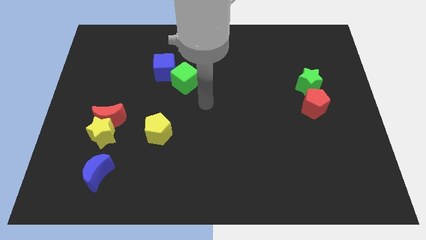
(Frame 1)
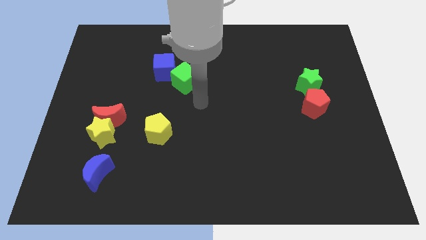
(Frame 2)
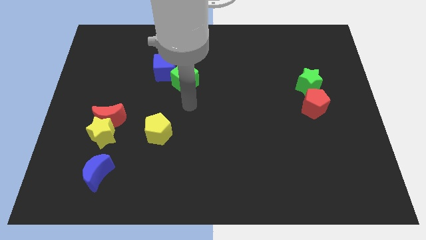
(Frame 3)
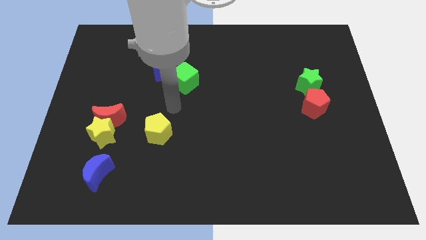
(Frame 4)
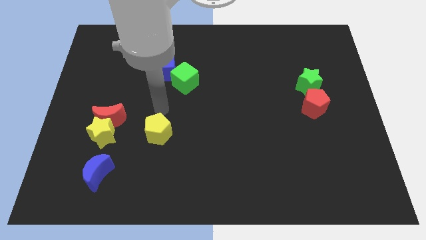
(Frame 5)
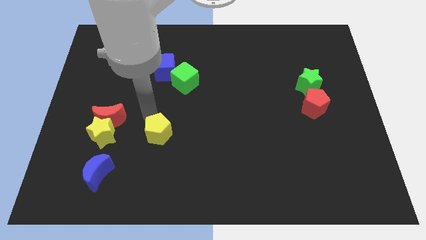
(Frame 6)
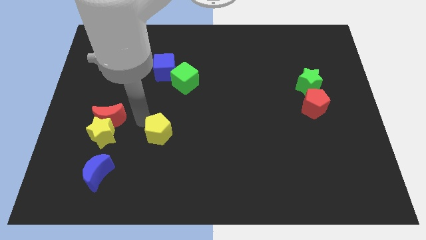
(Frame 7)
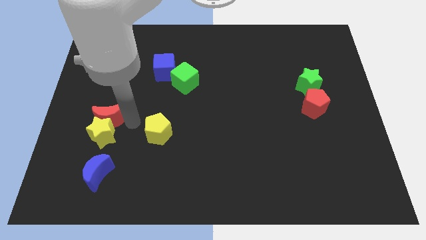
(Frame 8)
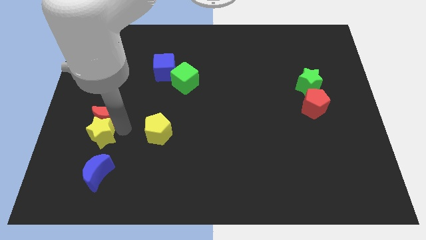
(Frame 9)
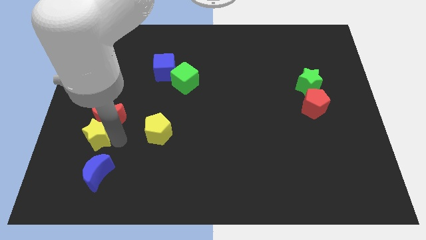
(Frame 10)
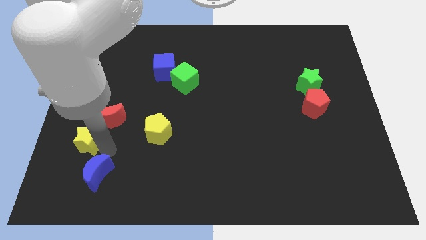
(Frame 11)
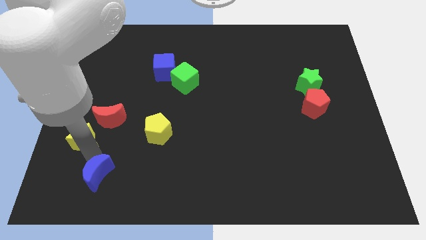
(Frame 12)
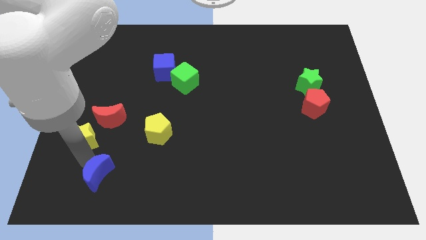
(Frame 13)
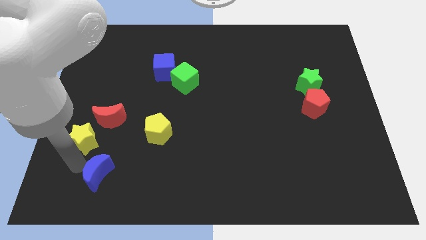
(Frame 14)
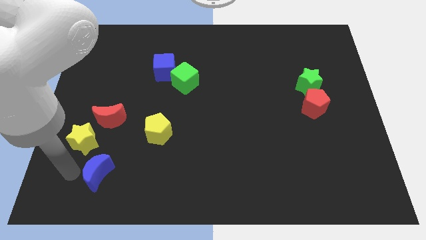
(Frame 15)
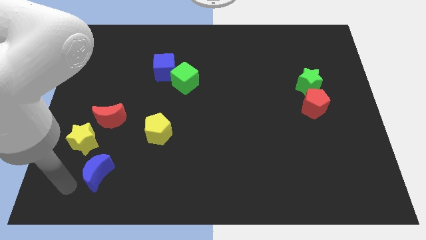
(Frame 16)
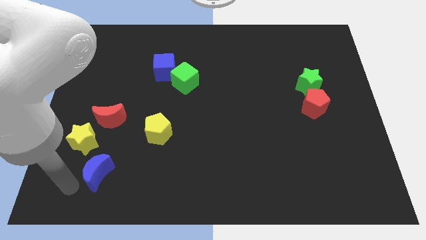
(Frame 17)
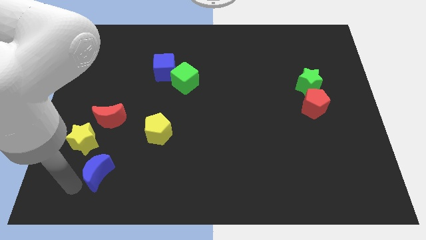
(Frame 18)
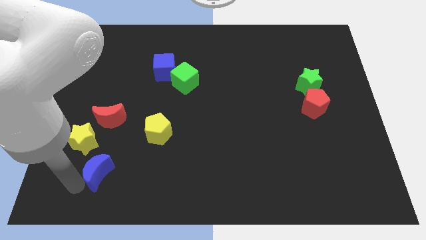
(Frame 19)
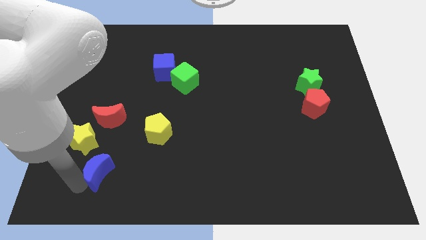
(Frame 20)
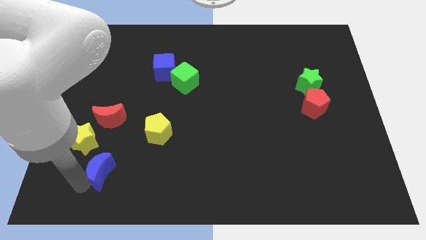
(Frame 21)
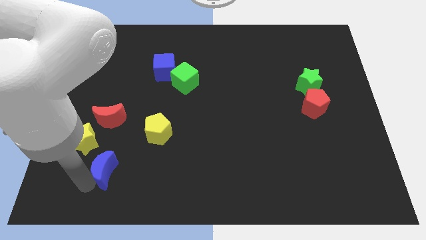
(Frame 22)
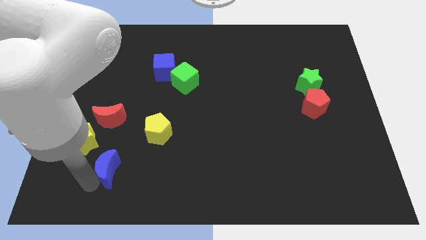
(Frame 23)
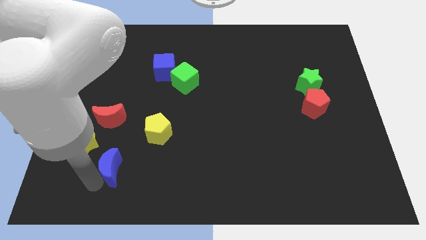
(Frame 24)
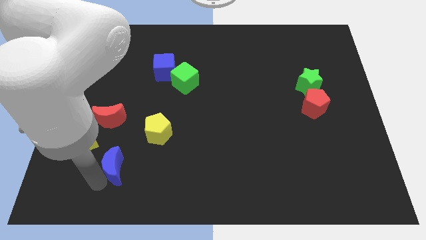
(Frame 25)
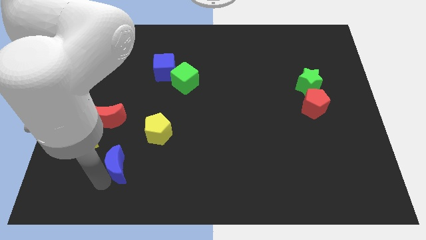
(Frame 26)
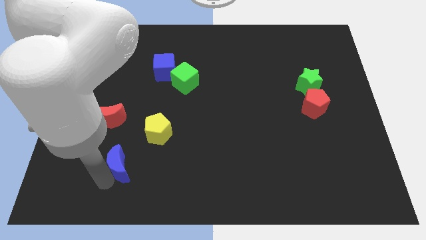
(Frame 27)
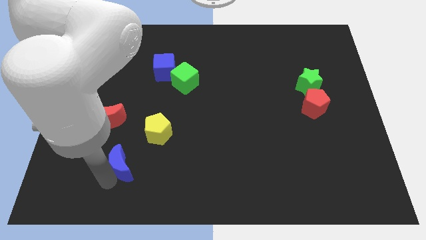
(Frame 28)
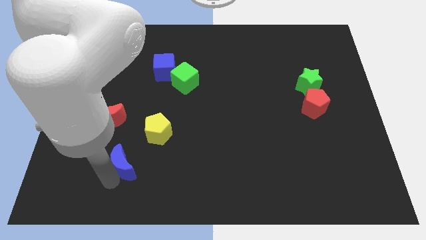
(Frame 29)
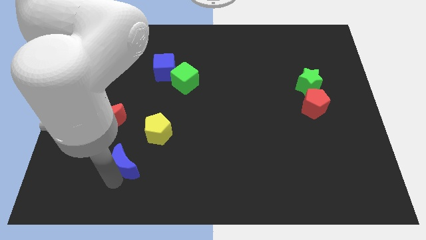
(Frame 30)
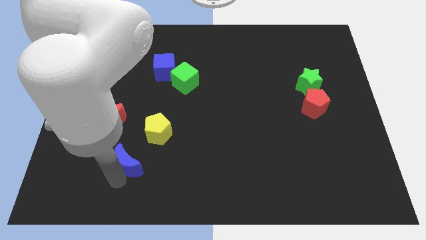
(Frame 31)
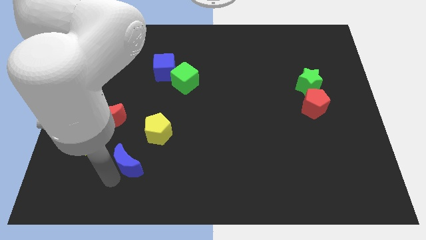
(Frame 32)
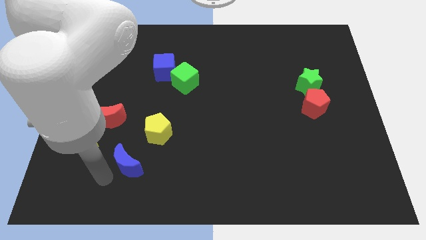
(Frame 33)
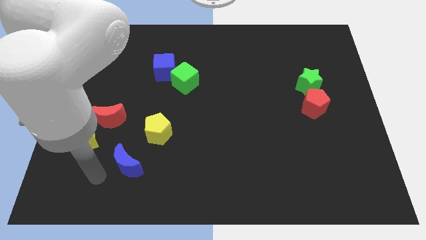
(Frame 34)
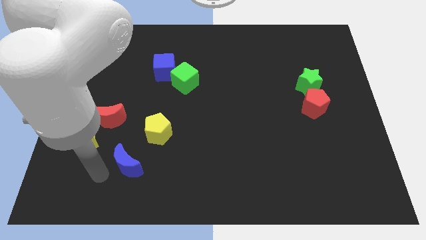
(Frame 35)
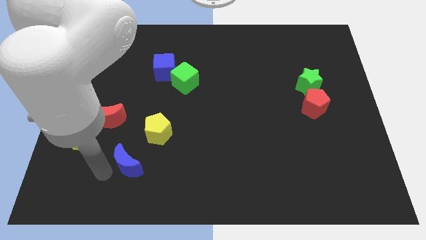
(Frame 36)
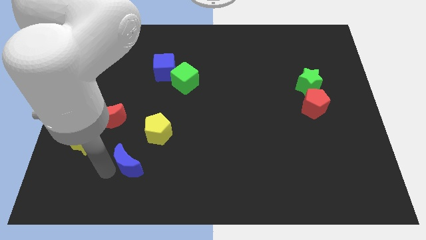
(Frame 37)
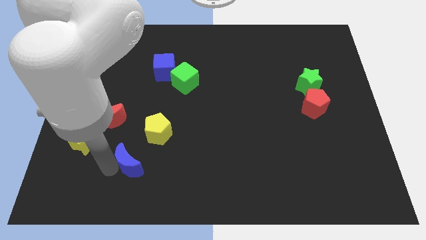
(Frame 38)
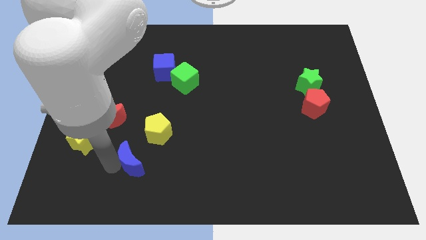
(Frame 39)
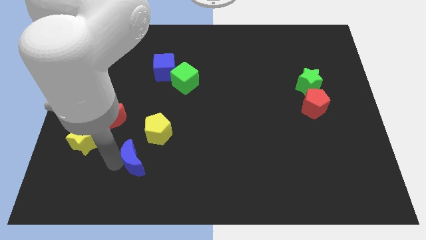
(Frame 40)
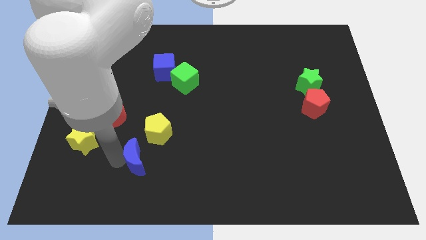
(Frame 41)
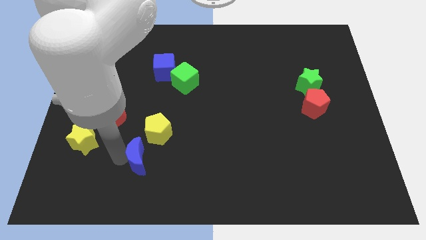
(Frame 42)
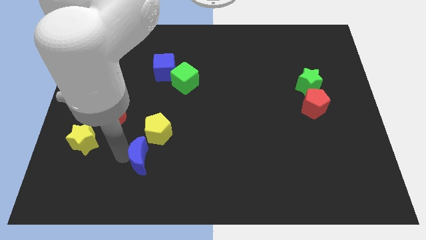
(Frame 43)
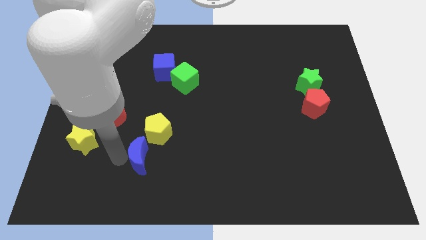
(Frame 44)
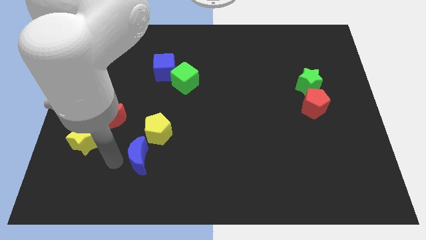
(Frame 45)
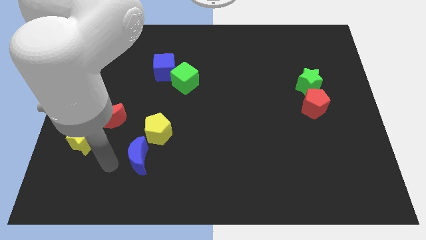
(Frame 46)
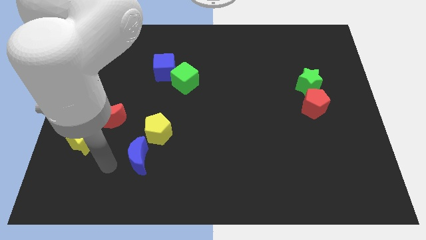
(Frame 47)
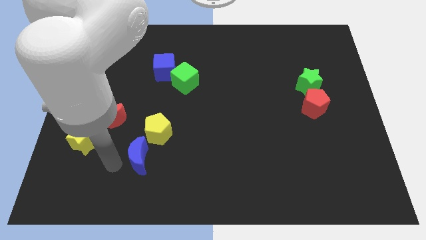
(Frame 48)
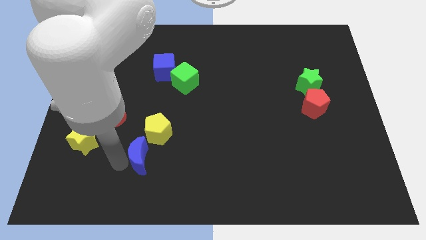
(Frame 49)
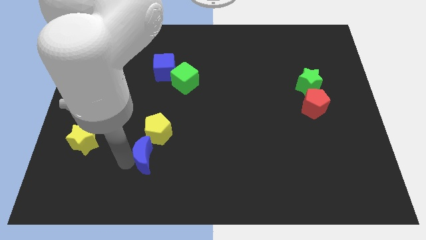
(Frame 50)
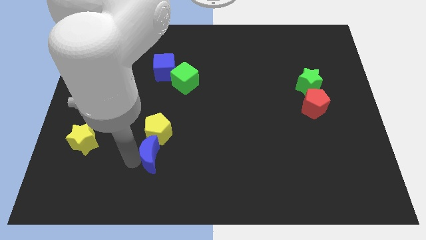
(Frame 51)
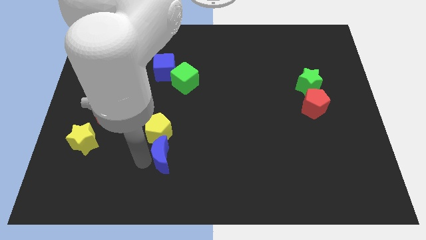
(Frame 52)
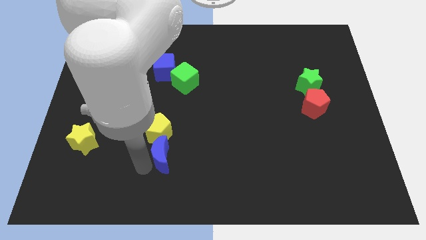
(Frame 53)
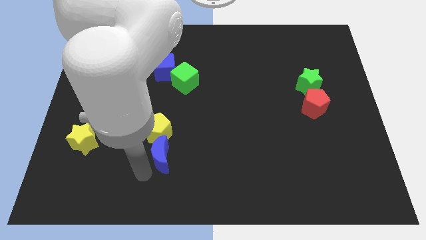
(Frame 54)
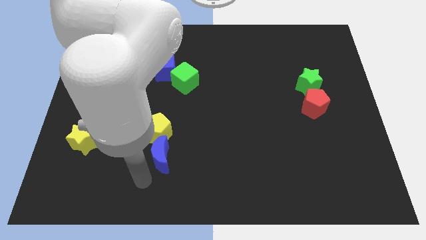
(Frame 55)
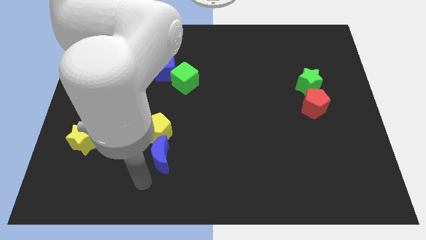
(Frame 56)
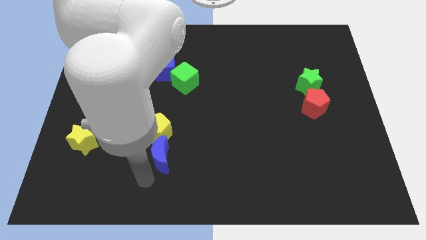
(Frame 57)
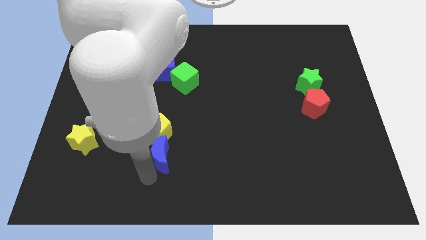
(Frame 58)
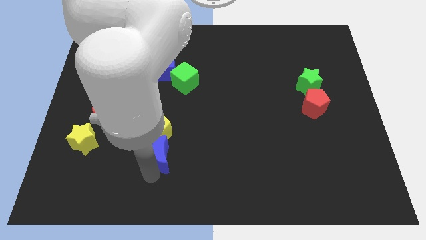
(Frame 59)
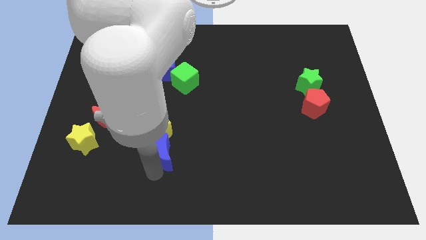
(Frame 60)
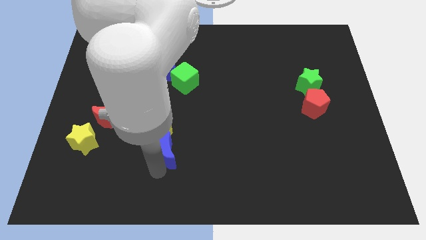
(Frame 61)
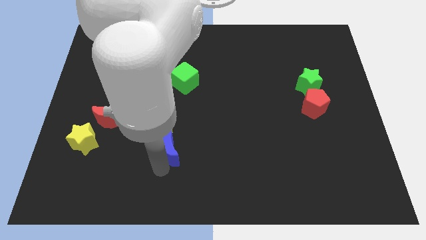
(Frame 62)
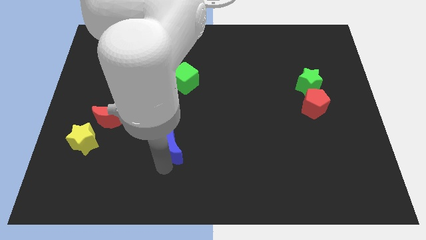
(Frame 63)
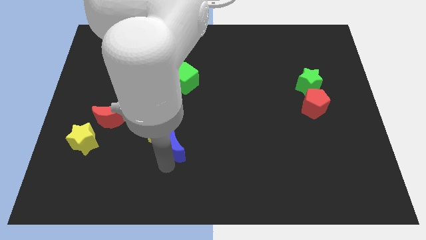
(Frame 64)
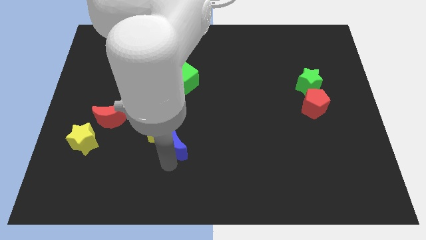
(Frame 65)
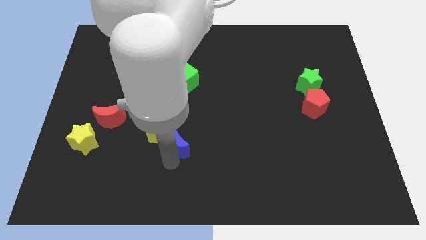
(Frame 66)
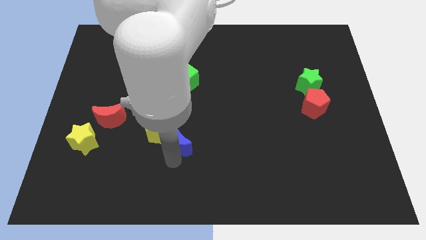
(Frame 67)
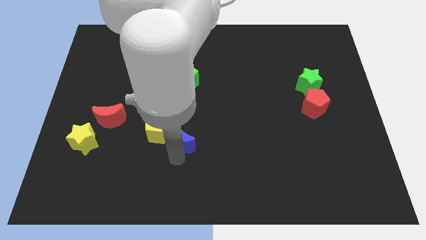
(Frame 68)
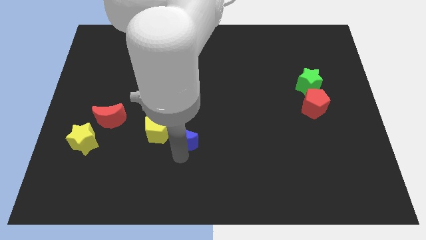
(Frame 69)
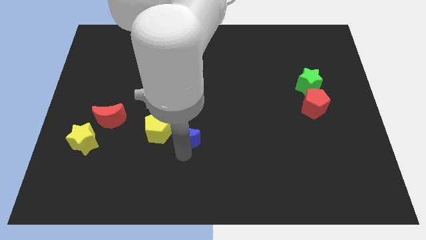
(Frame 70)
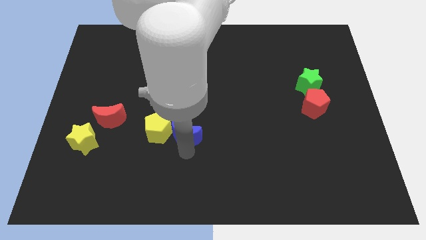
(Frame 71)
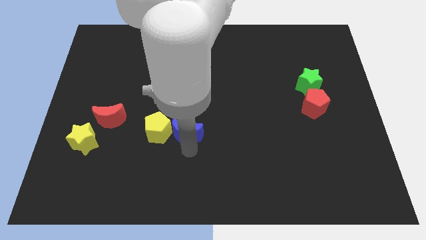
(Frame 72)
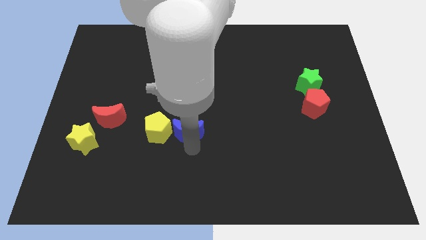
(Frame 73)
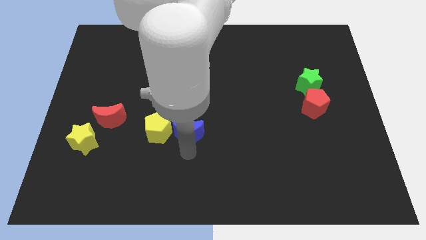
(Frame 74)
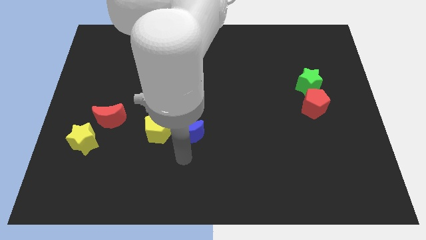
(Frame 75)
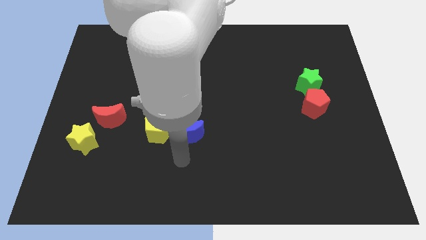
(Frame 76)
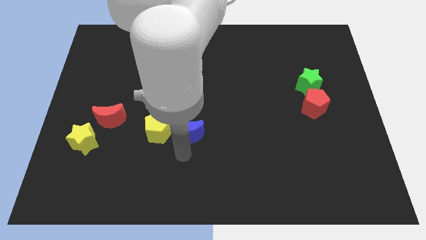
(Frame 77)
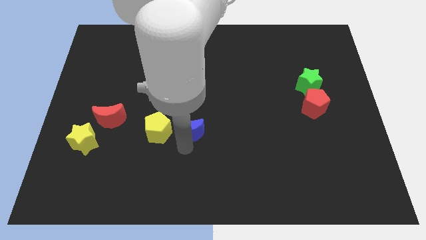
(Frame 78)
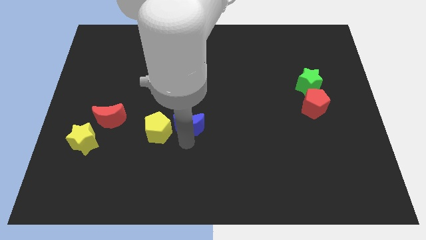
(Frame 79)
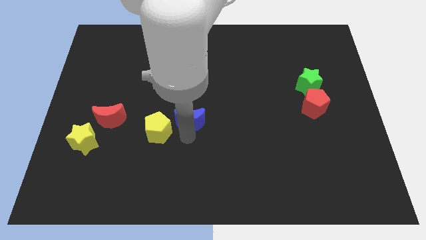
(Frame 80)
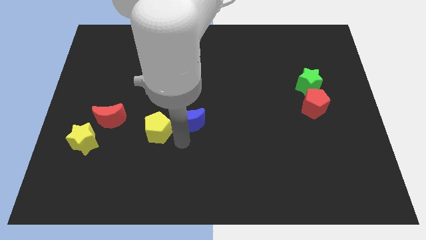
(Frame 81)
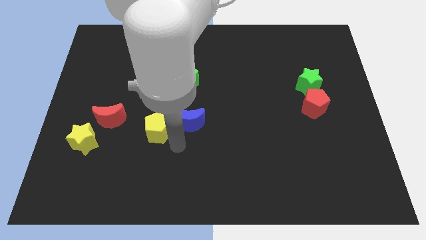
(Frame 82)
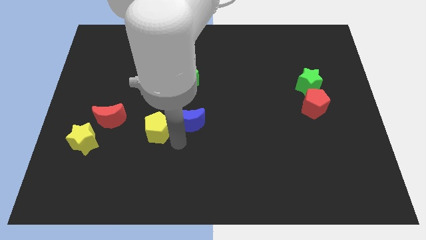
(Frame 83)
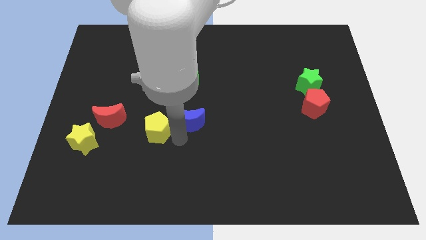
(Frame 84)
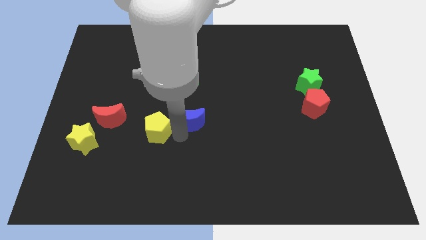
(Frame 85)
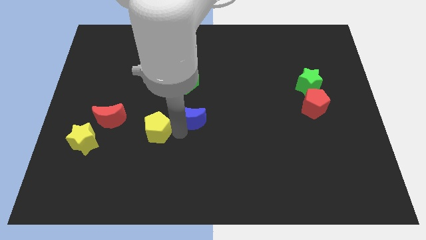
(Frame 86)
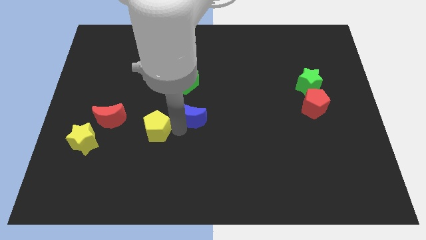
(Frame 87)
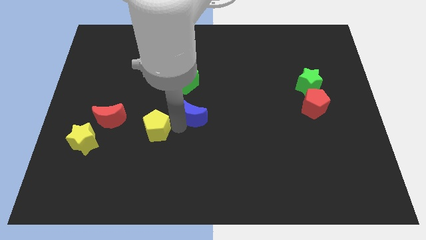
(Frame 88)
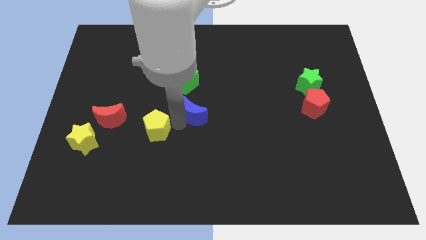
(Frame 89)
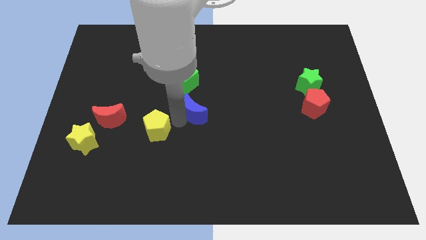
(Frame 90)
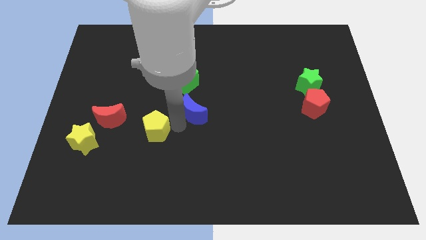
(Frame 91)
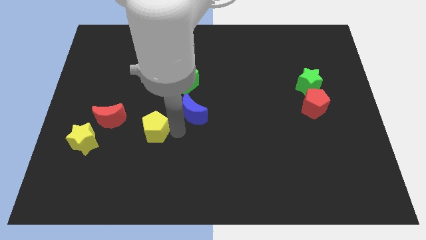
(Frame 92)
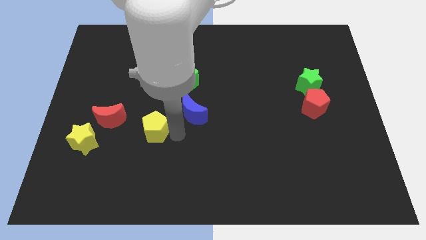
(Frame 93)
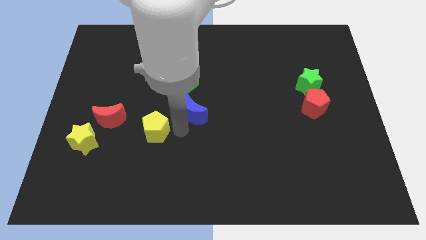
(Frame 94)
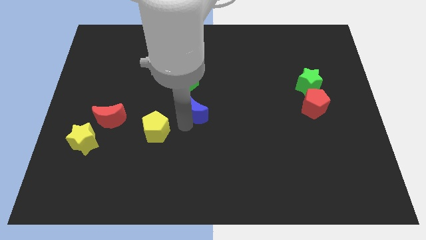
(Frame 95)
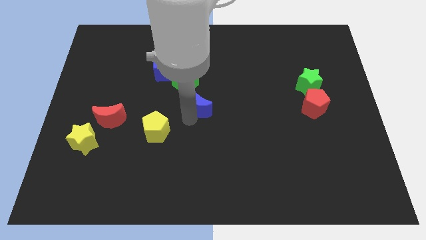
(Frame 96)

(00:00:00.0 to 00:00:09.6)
put the blue moon diagonally down and to the right of the green cube
